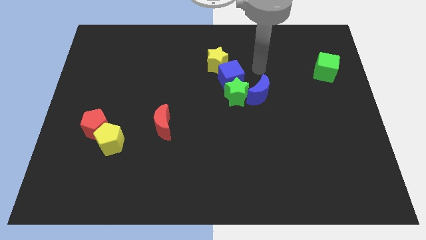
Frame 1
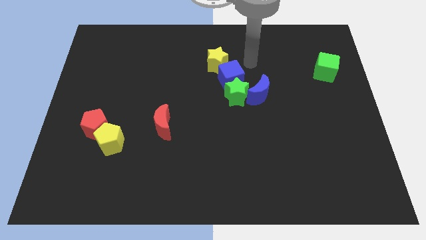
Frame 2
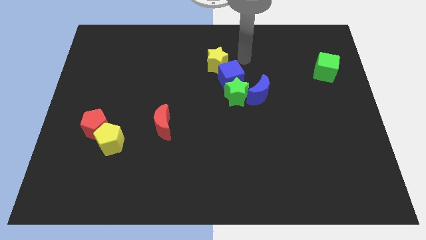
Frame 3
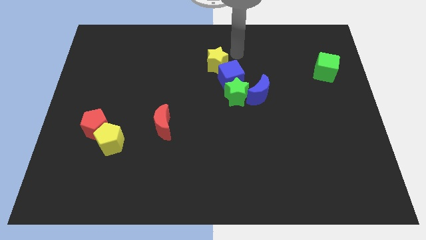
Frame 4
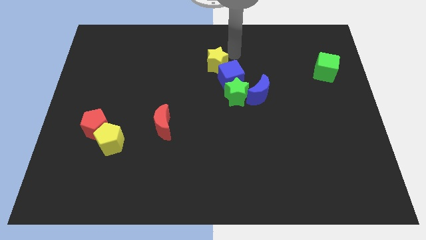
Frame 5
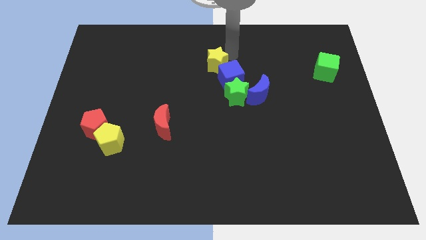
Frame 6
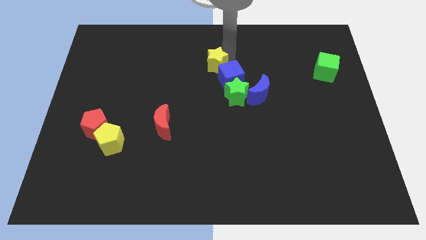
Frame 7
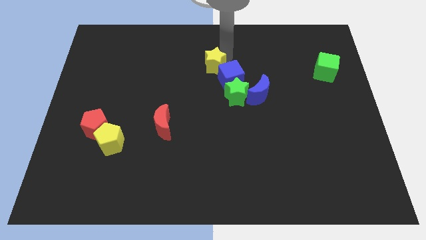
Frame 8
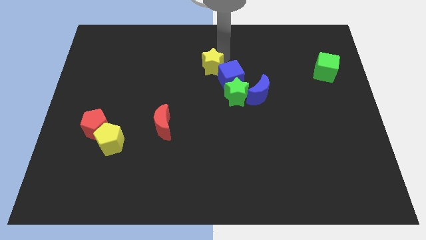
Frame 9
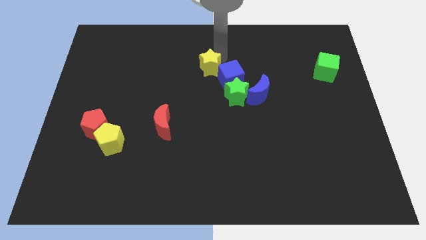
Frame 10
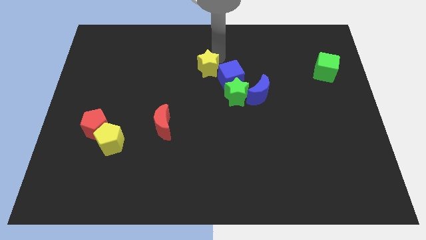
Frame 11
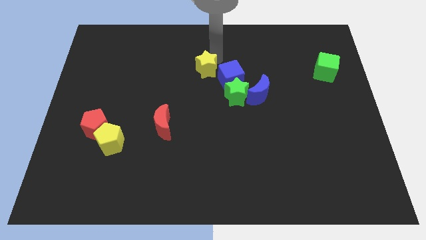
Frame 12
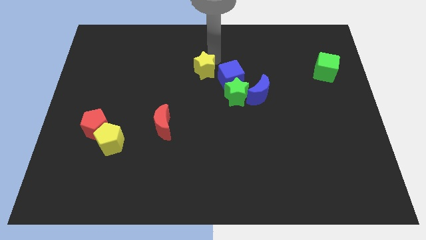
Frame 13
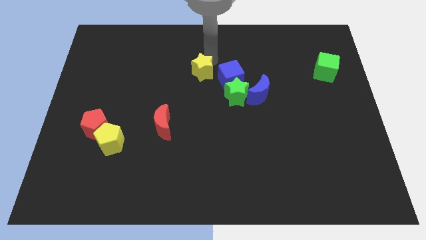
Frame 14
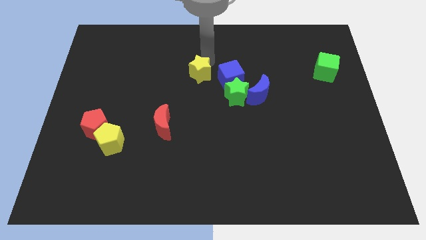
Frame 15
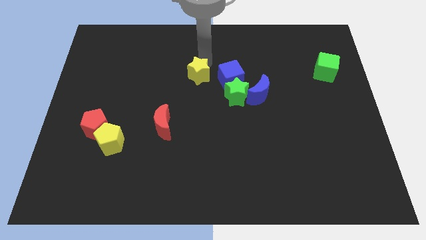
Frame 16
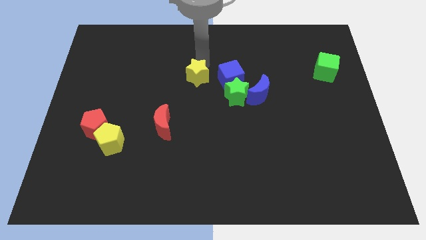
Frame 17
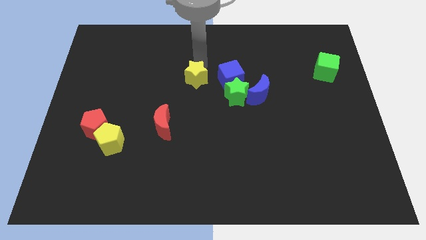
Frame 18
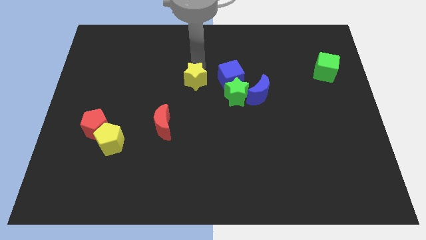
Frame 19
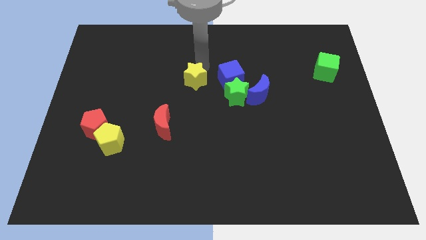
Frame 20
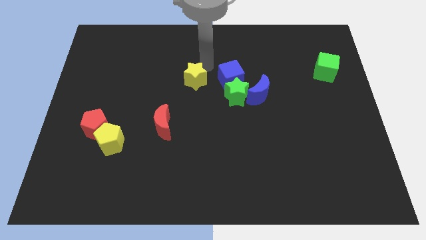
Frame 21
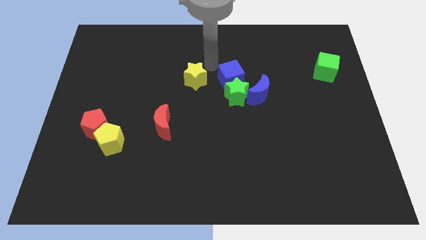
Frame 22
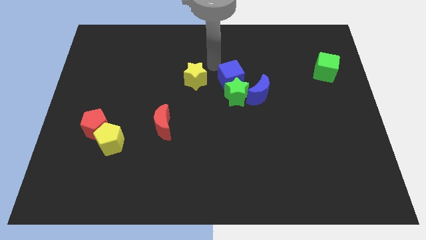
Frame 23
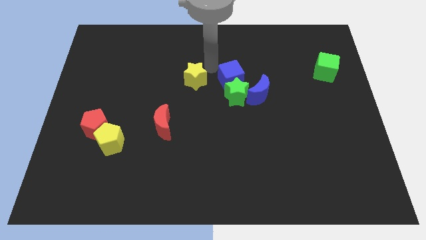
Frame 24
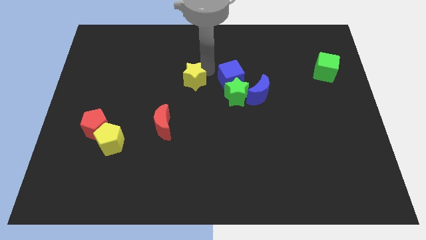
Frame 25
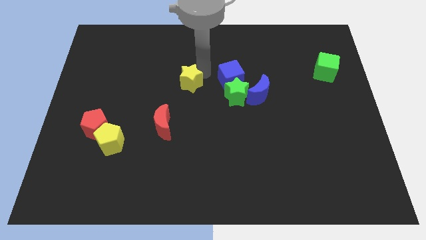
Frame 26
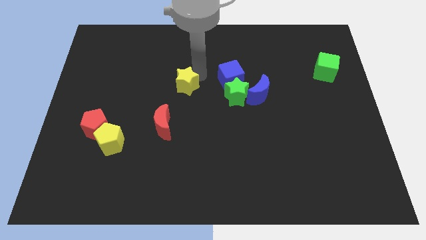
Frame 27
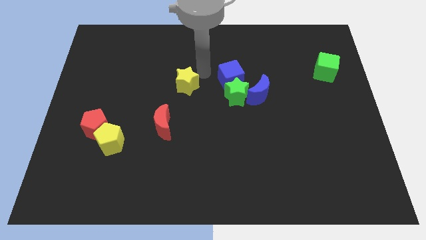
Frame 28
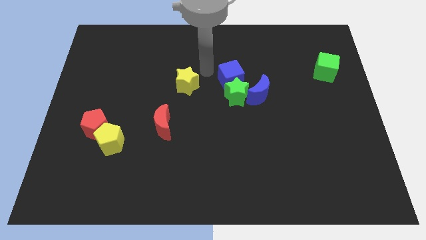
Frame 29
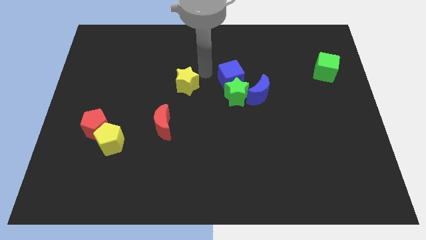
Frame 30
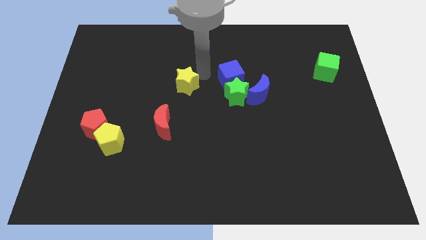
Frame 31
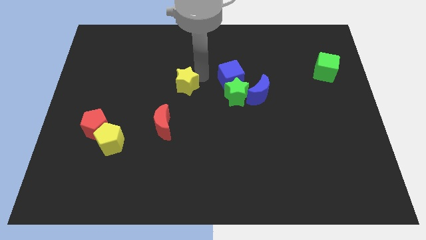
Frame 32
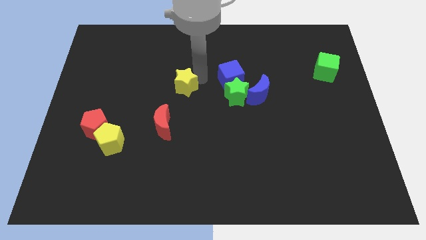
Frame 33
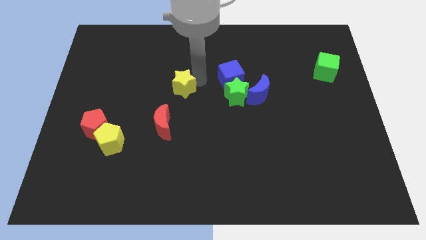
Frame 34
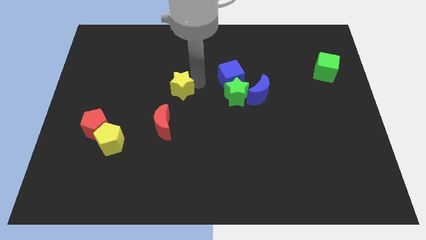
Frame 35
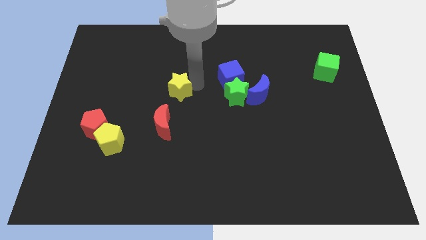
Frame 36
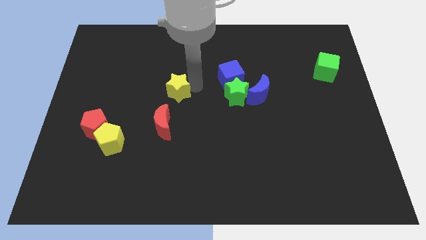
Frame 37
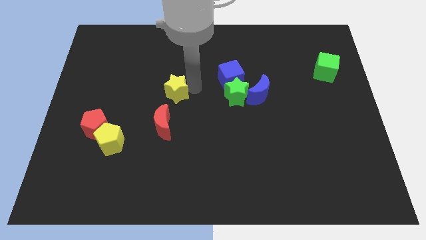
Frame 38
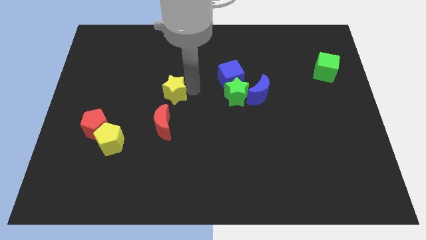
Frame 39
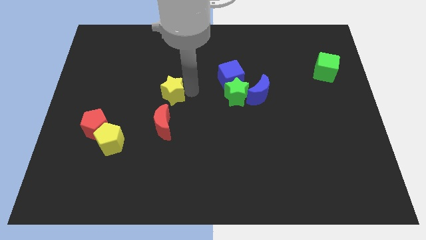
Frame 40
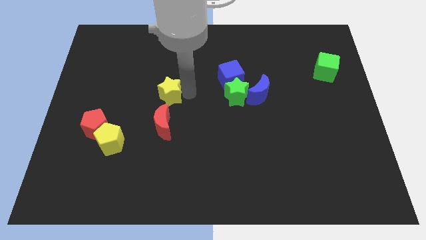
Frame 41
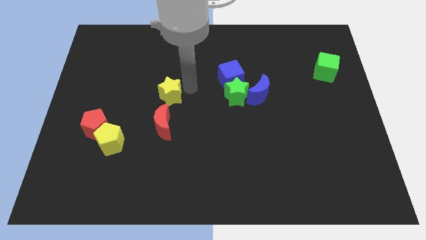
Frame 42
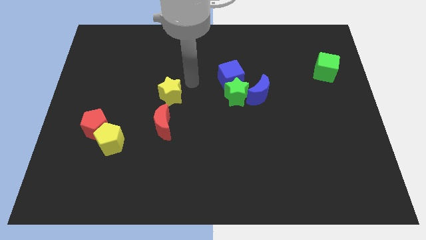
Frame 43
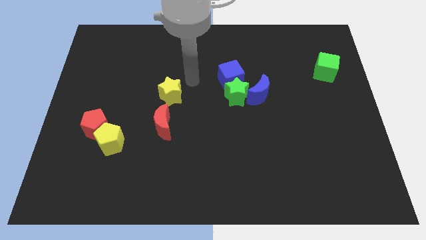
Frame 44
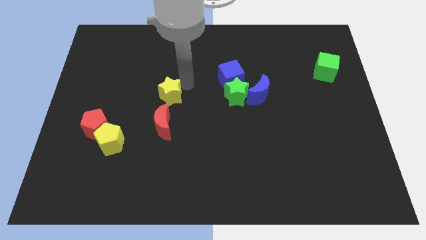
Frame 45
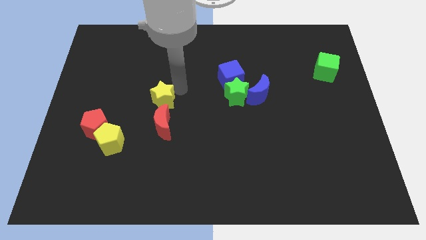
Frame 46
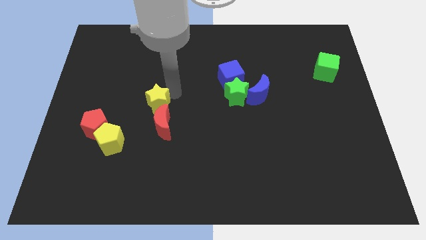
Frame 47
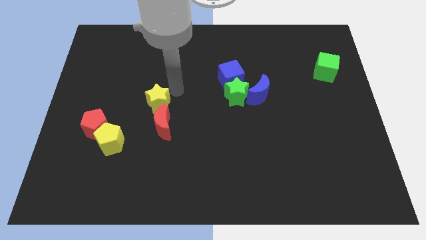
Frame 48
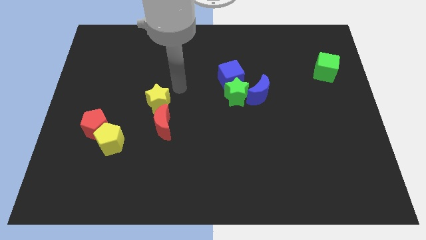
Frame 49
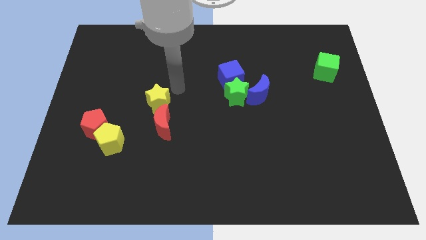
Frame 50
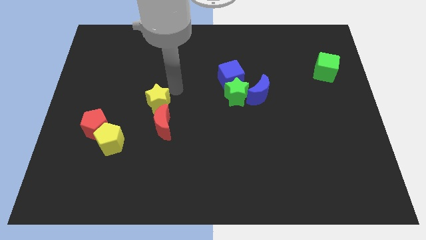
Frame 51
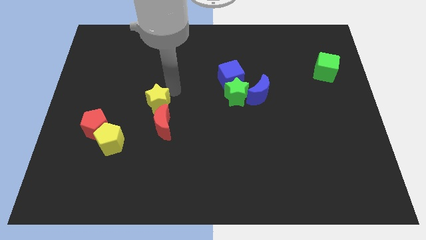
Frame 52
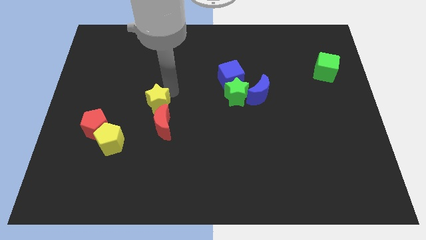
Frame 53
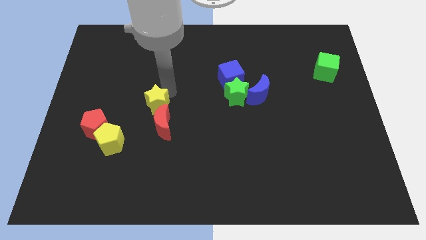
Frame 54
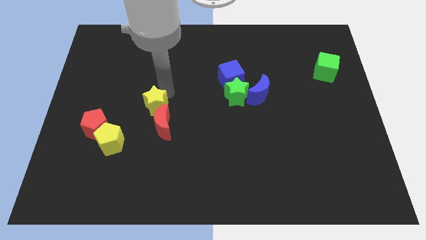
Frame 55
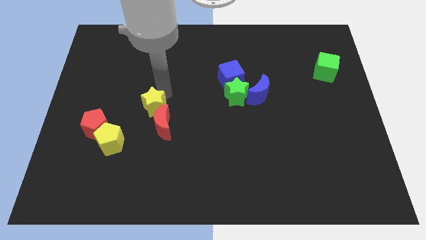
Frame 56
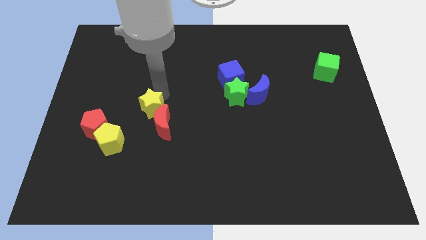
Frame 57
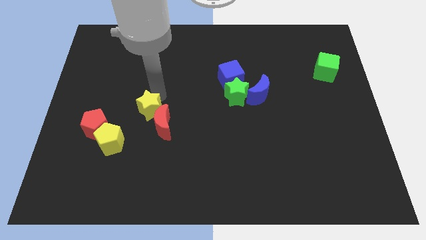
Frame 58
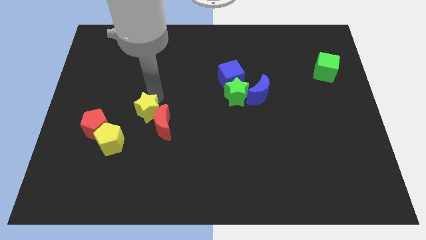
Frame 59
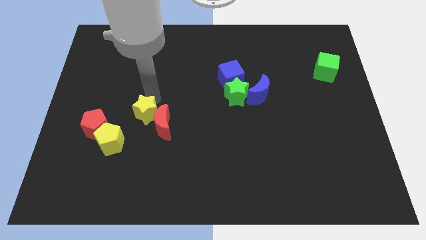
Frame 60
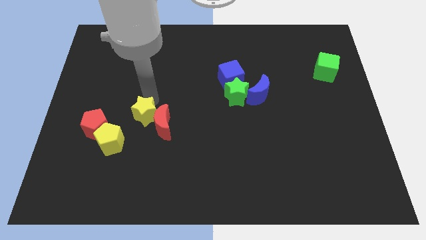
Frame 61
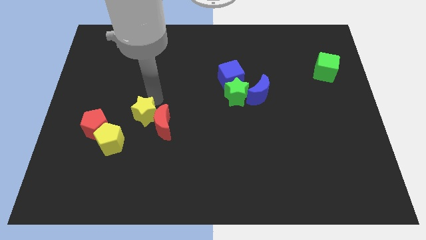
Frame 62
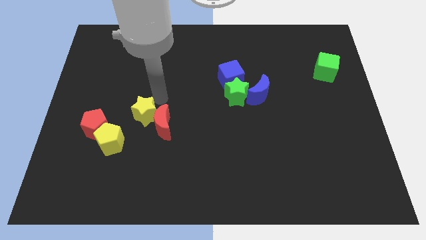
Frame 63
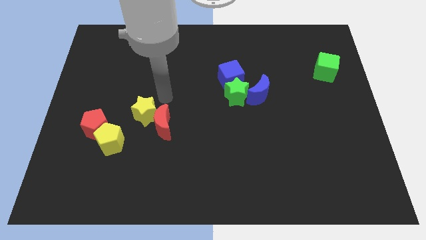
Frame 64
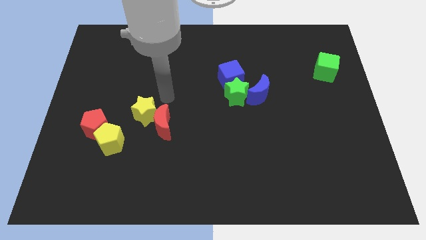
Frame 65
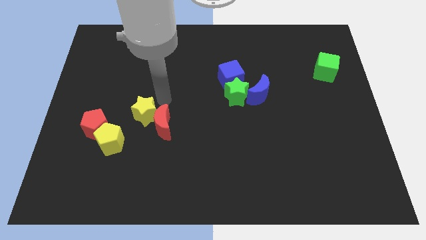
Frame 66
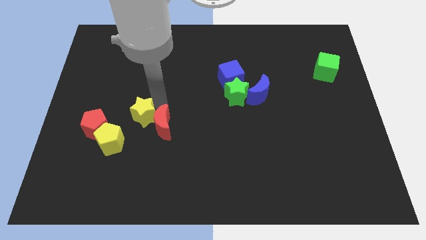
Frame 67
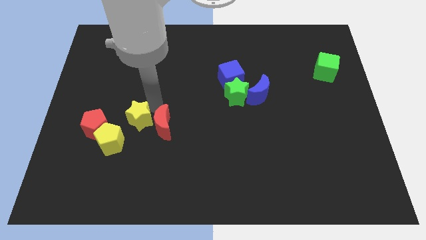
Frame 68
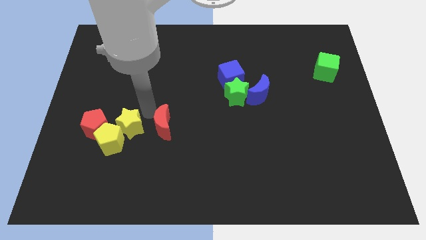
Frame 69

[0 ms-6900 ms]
push the yellow star to the yellow pentagon

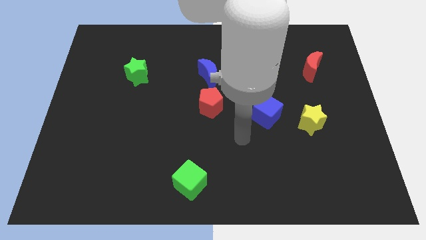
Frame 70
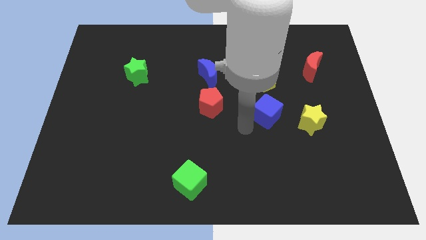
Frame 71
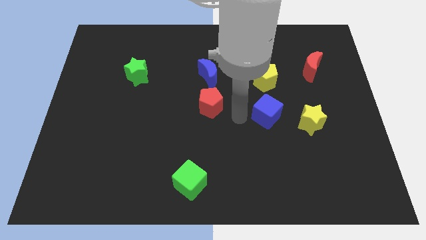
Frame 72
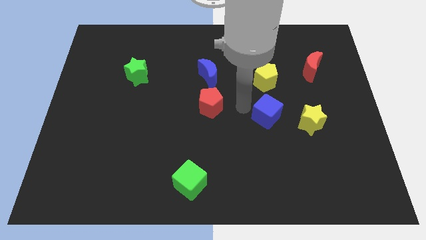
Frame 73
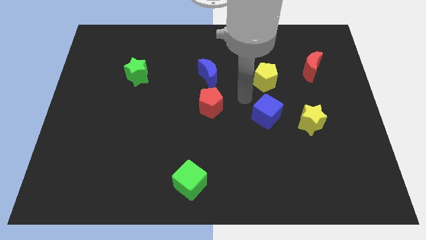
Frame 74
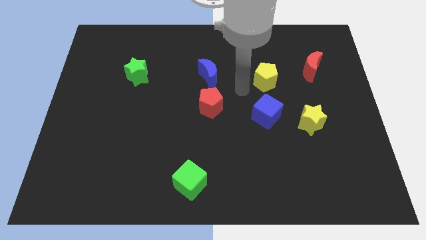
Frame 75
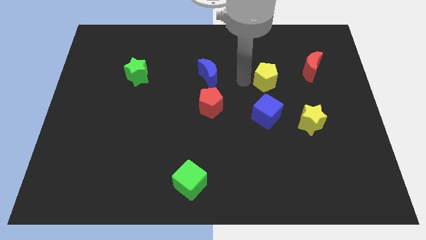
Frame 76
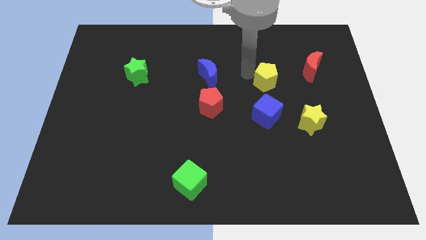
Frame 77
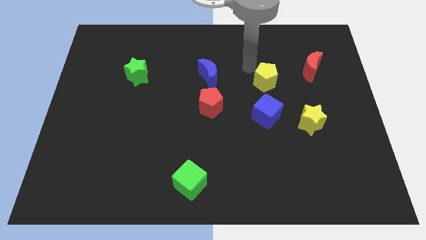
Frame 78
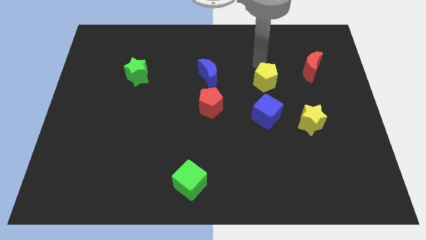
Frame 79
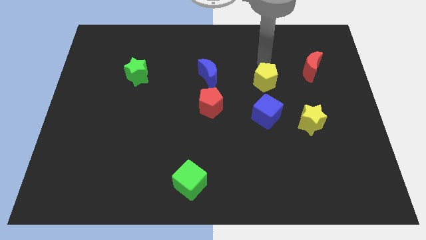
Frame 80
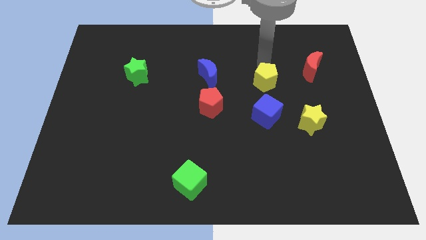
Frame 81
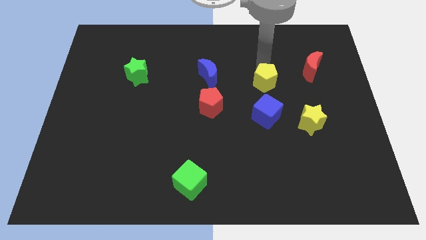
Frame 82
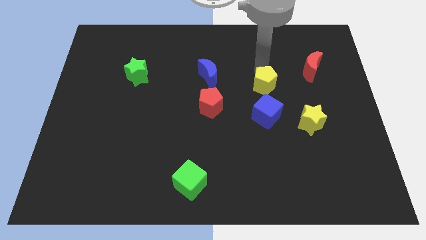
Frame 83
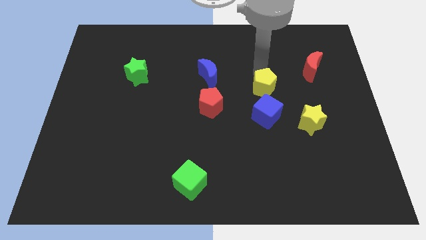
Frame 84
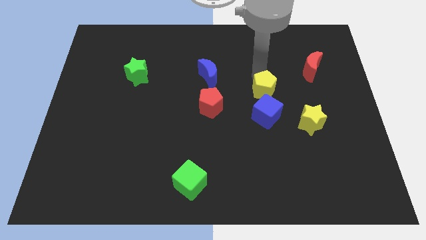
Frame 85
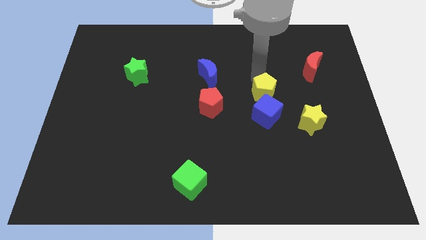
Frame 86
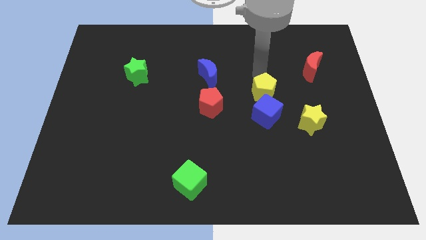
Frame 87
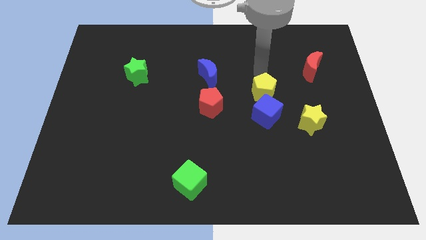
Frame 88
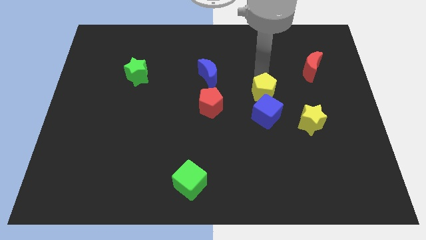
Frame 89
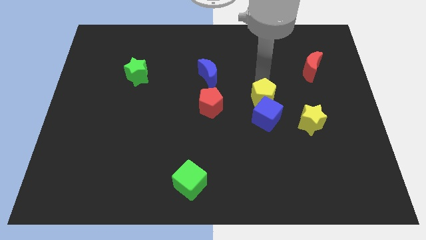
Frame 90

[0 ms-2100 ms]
move the yellow pentagon next to the blue cube
